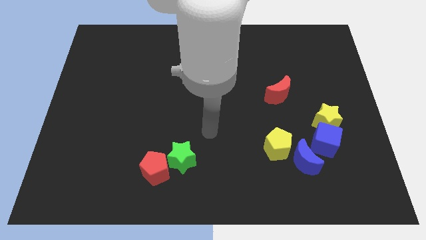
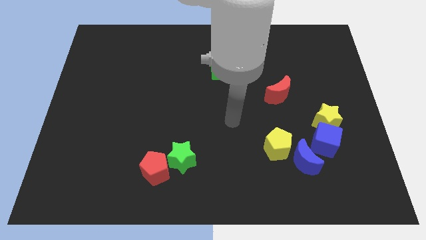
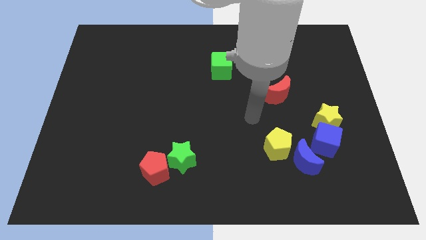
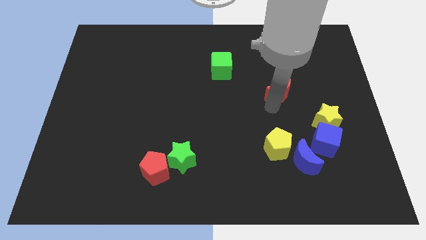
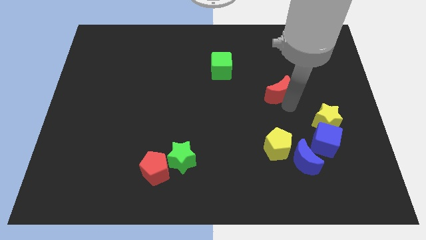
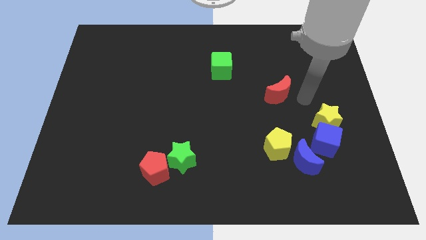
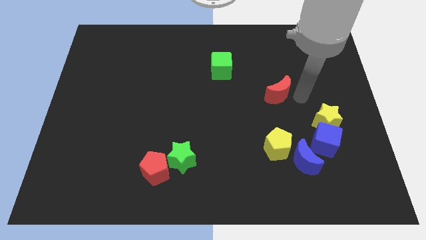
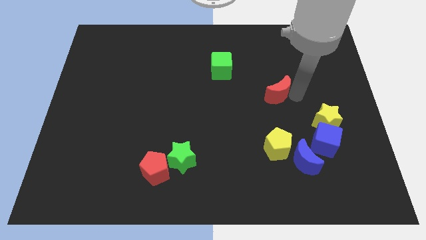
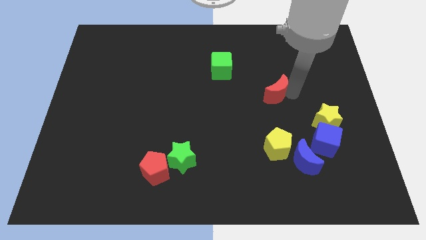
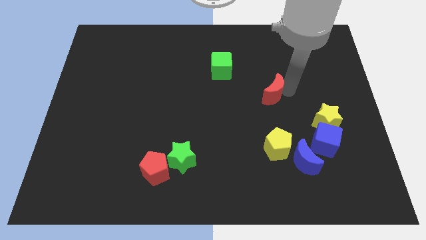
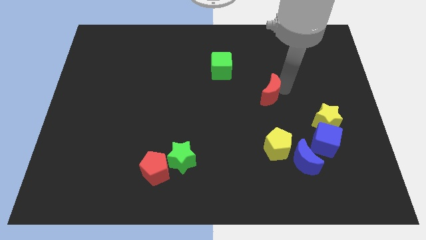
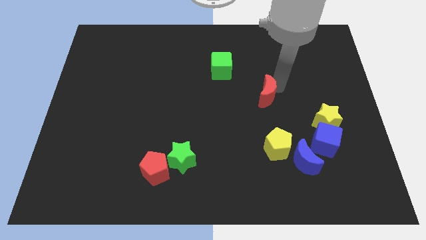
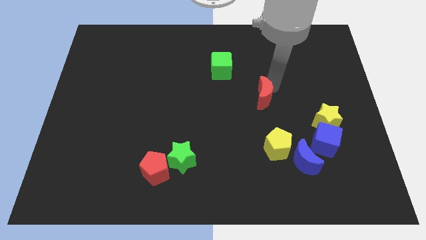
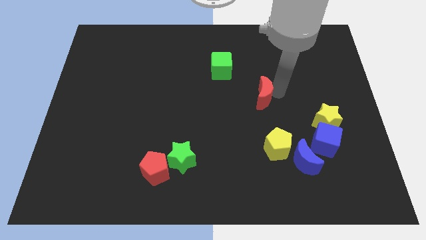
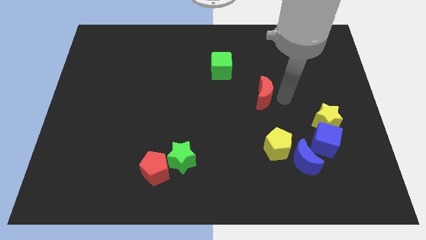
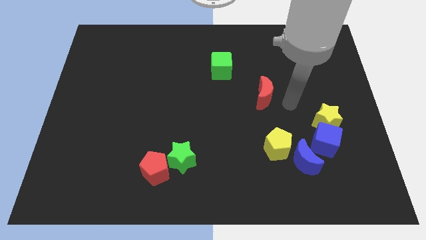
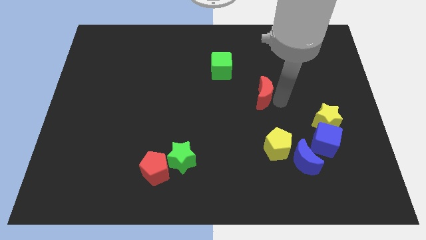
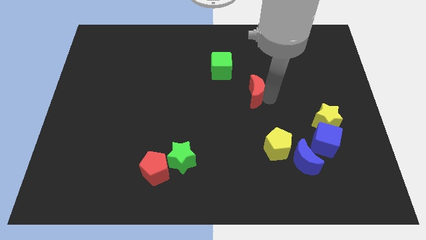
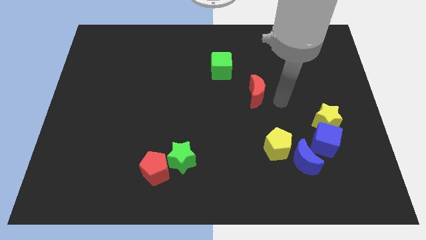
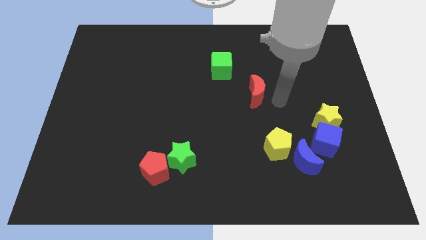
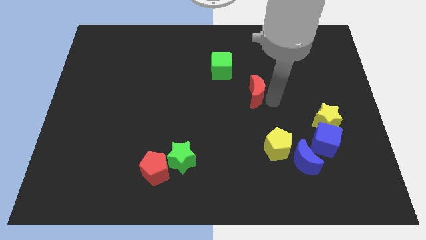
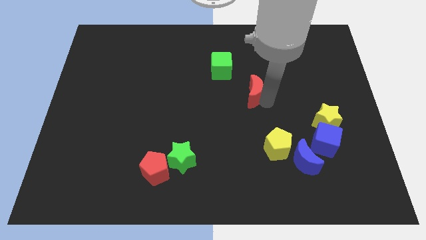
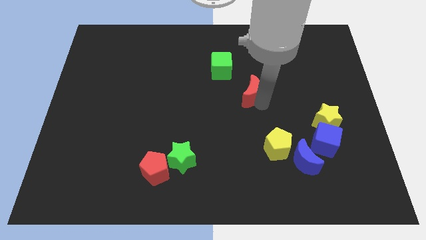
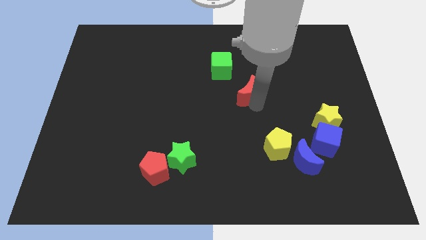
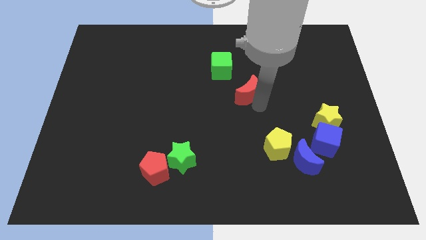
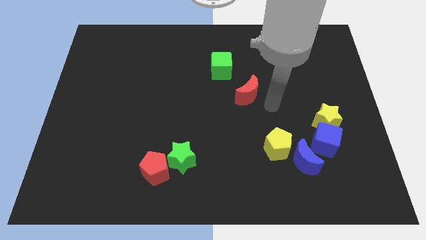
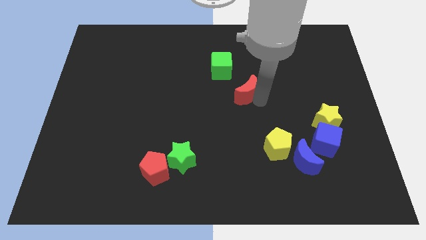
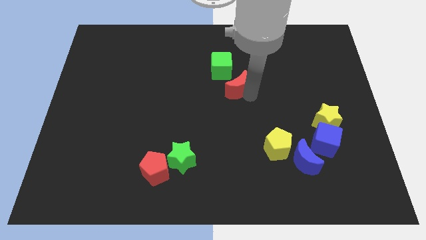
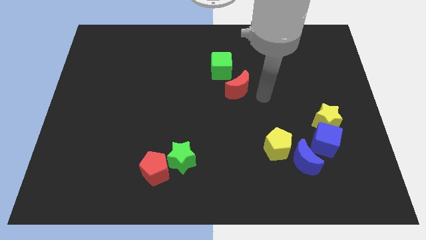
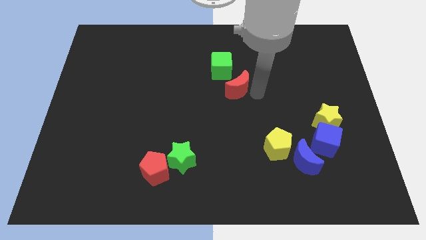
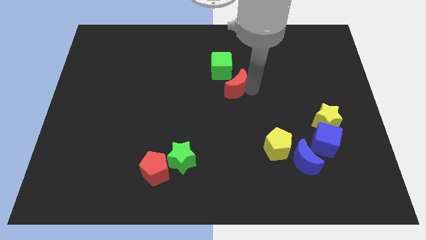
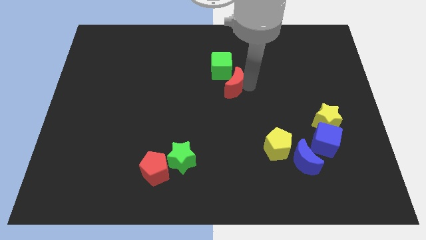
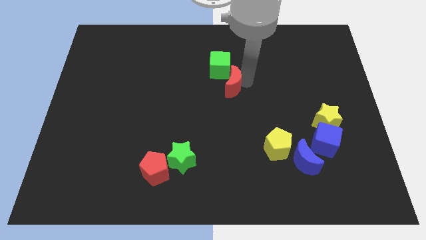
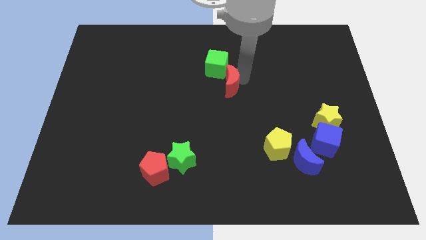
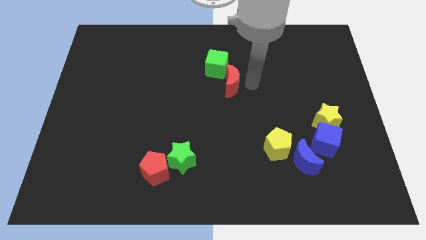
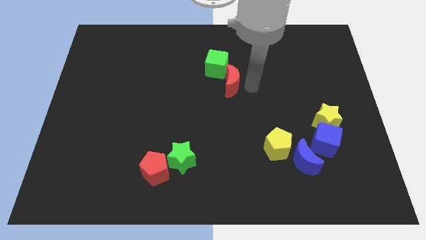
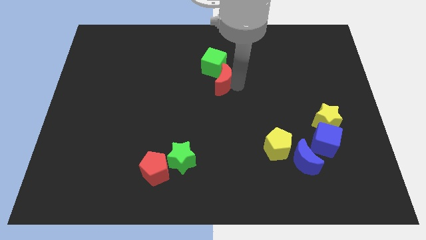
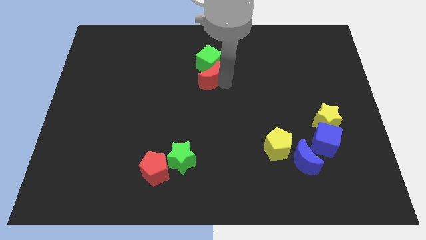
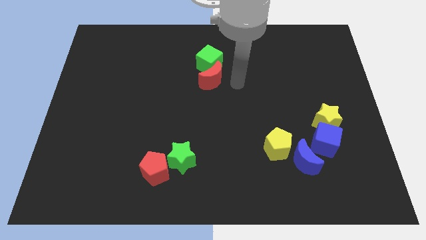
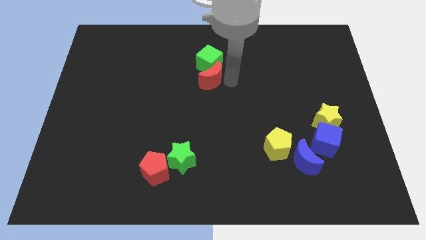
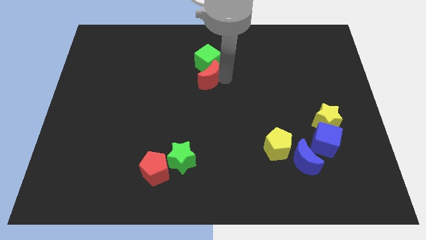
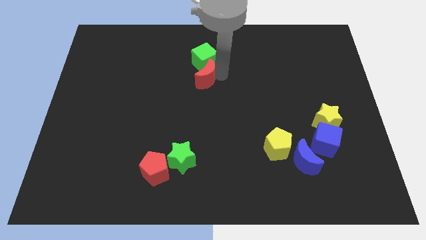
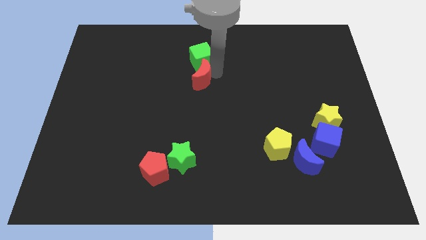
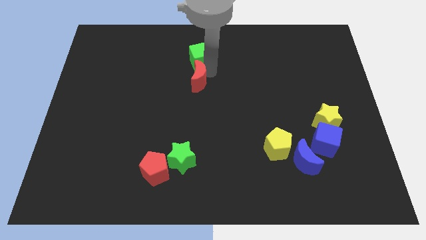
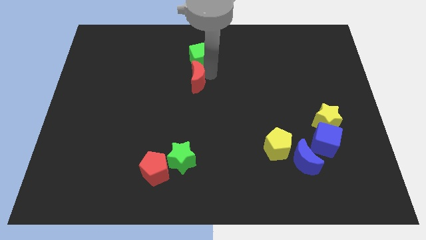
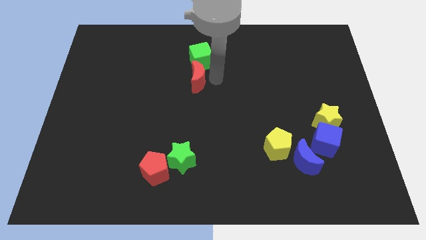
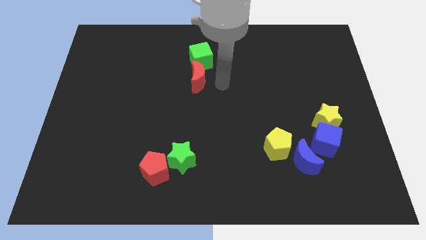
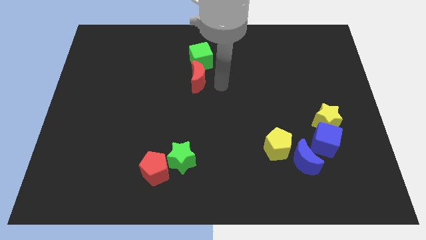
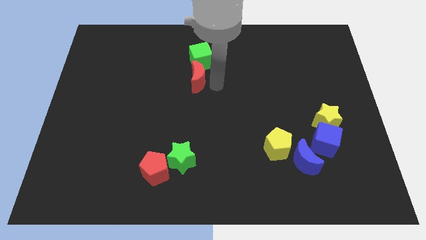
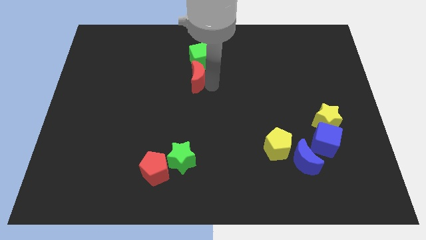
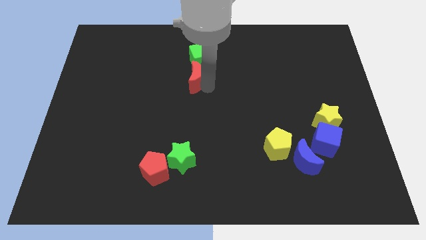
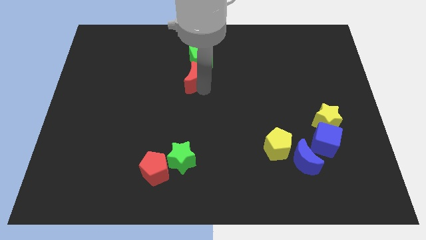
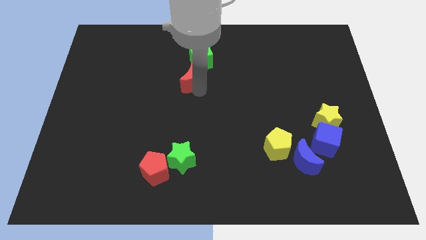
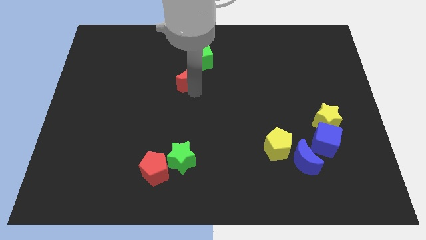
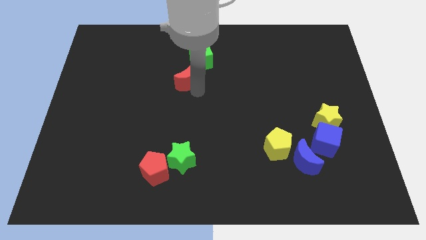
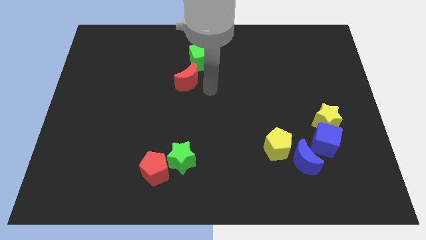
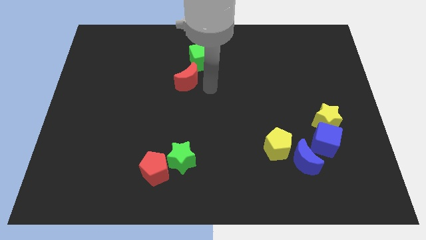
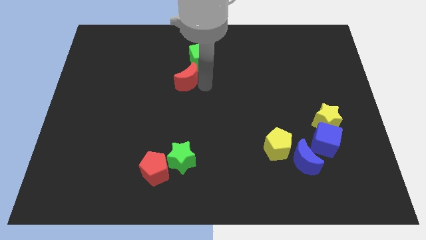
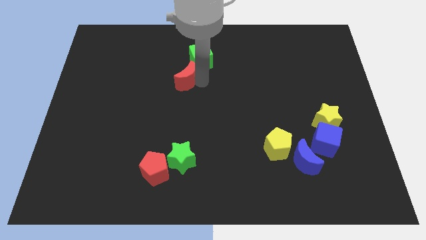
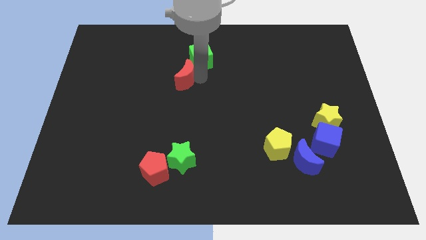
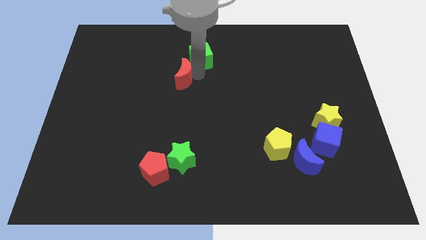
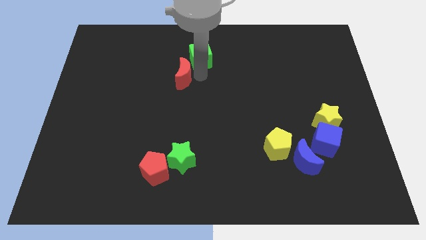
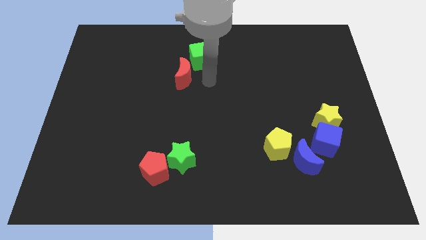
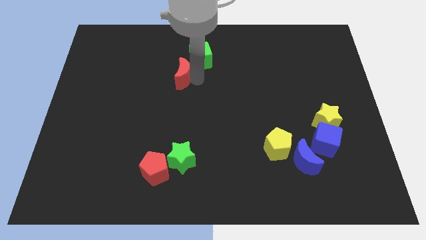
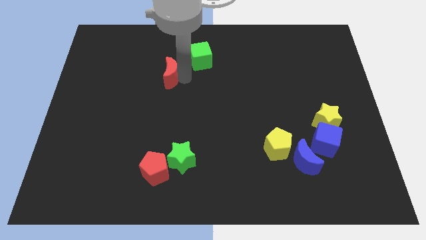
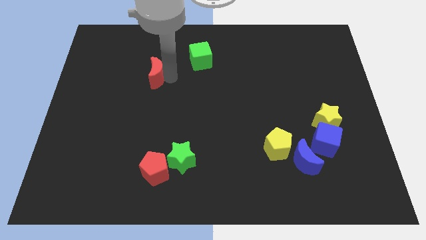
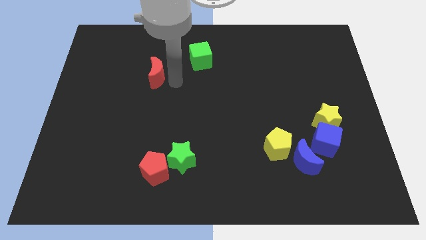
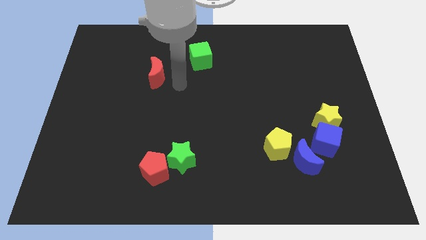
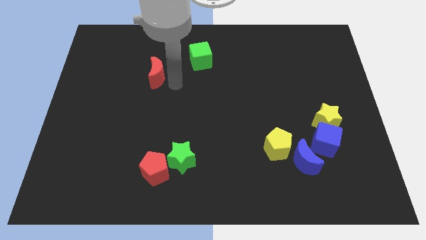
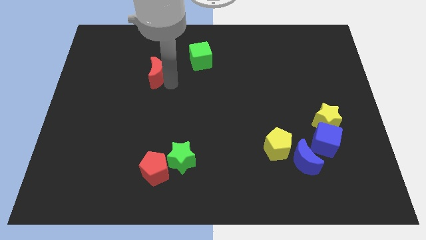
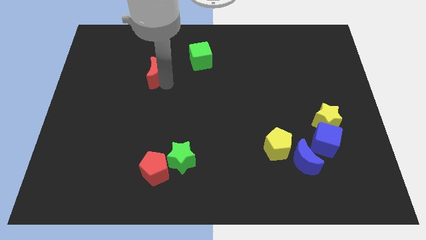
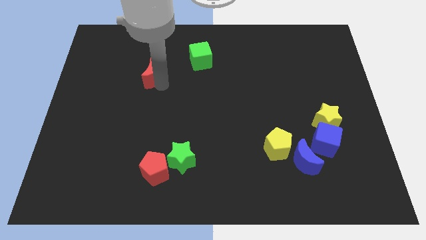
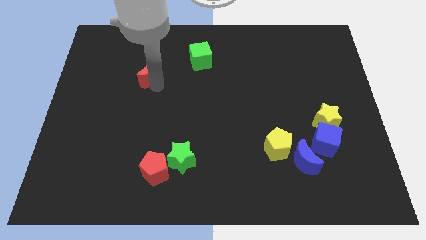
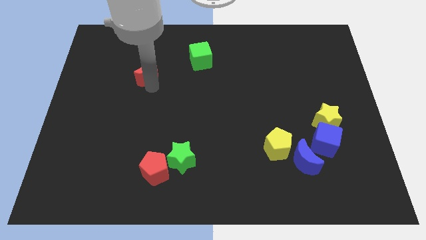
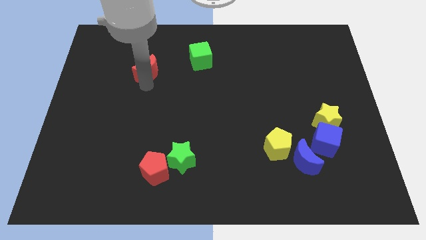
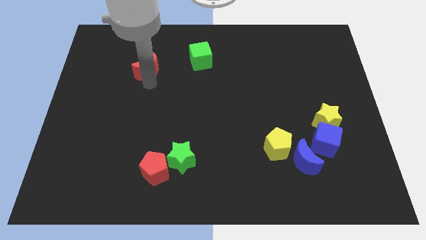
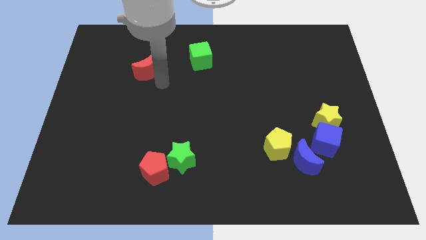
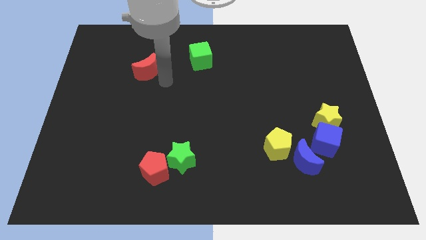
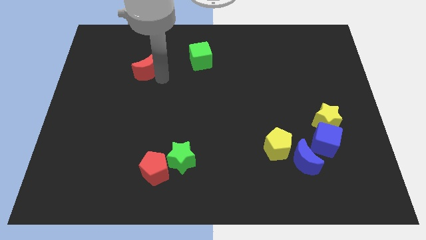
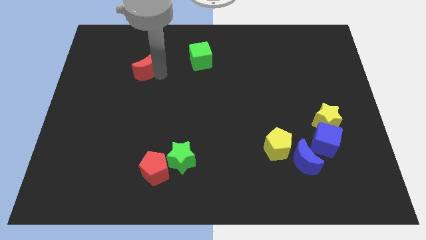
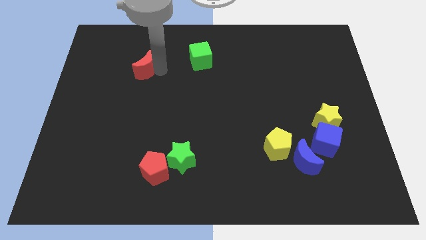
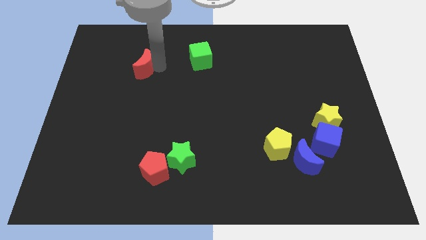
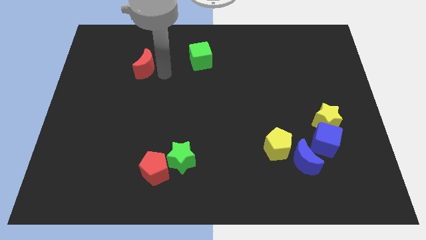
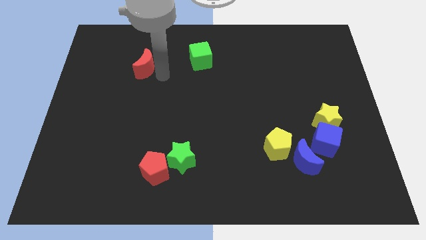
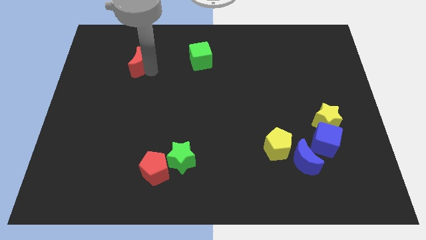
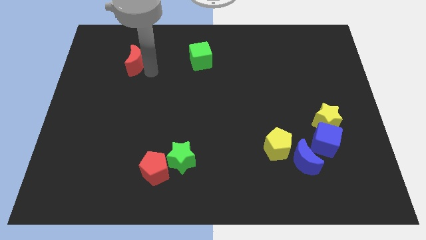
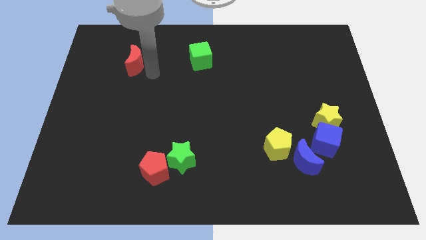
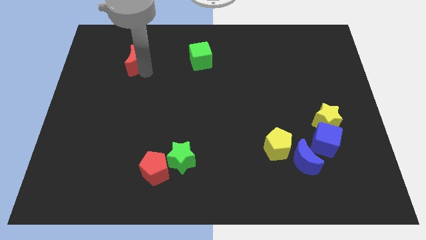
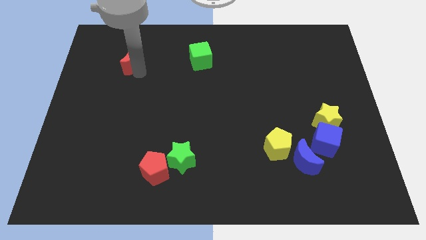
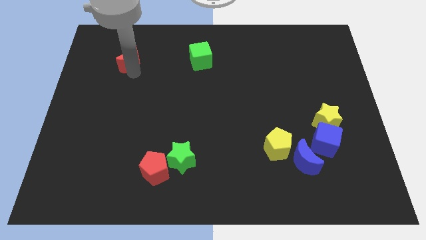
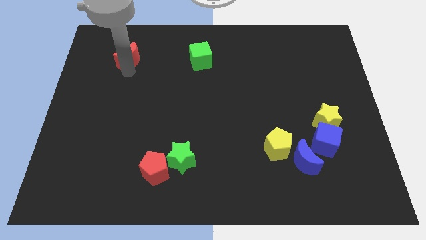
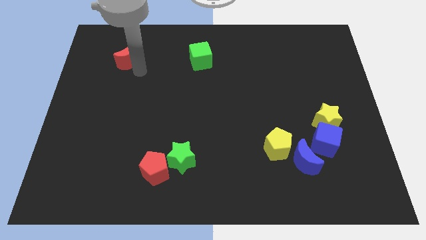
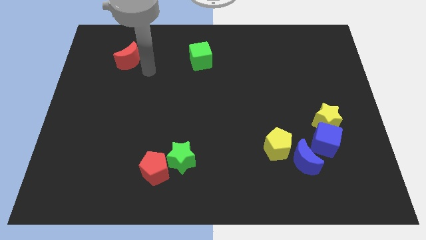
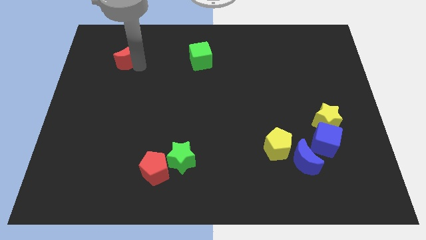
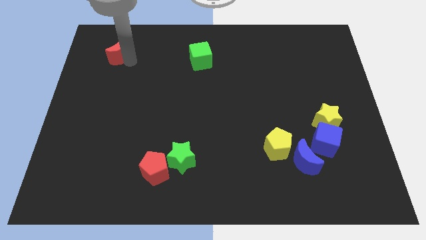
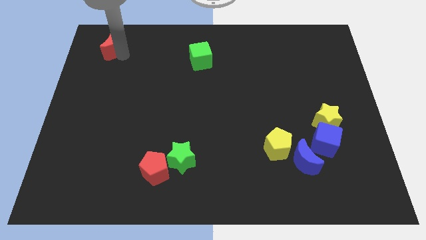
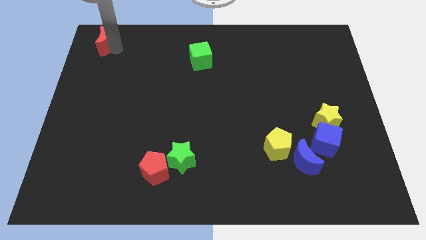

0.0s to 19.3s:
move the red moon to the upper left corner
